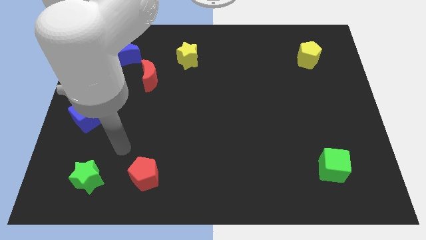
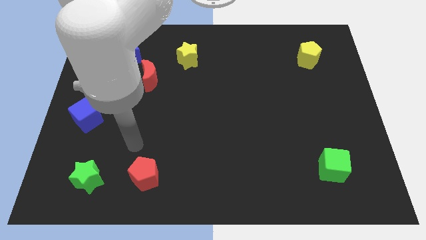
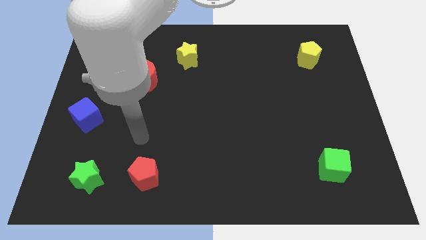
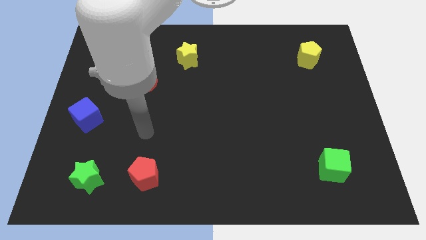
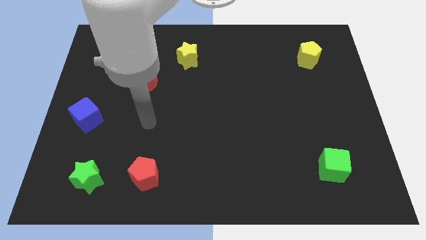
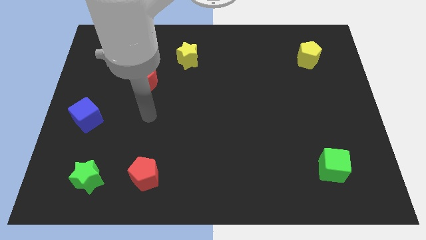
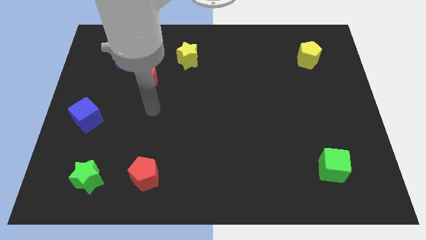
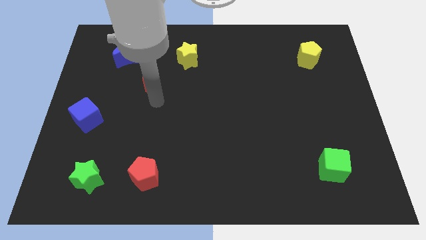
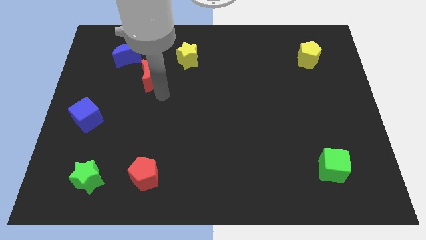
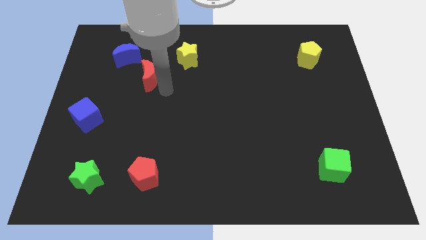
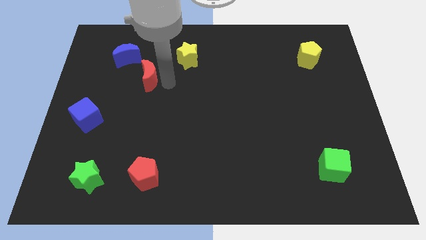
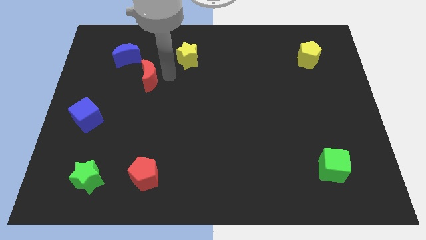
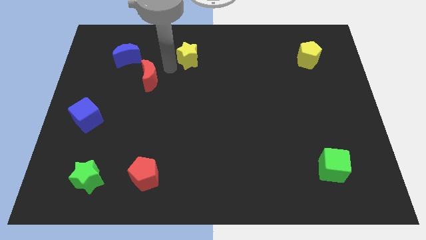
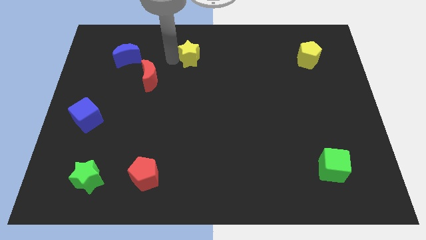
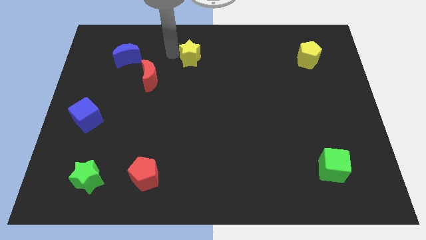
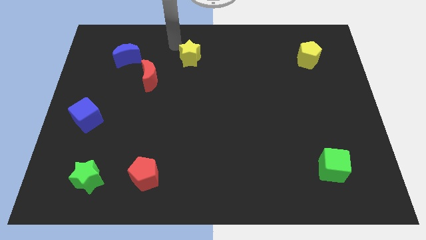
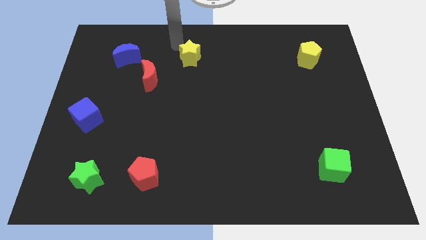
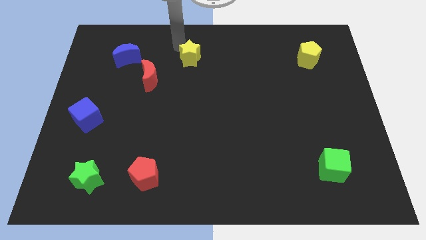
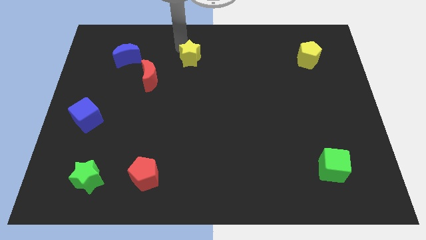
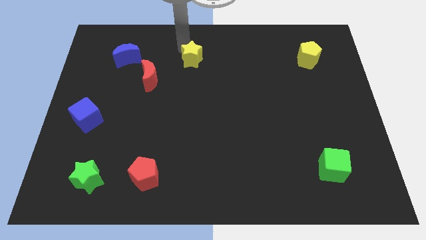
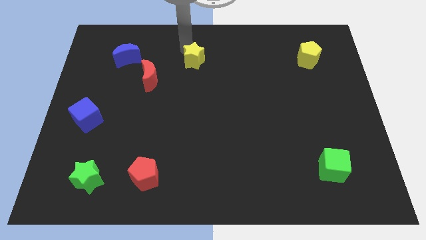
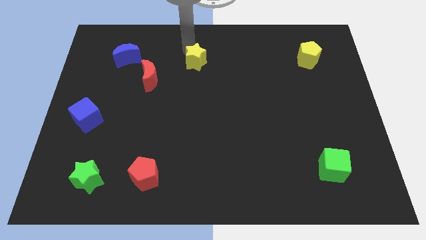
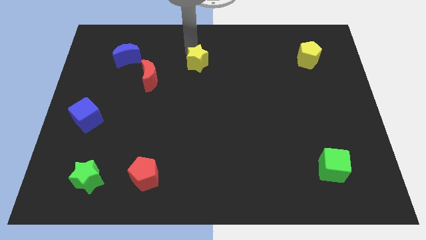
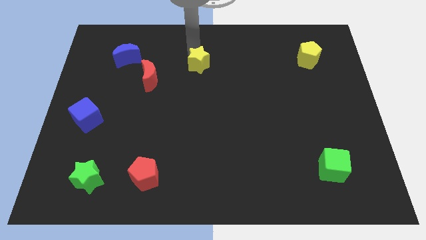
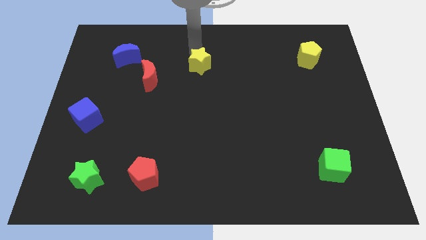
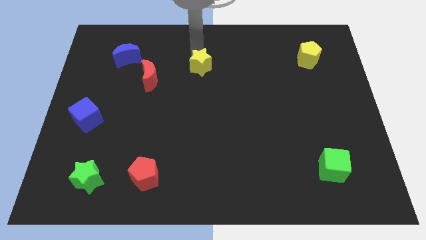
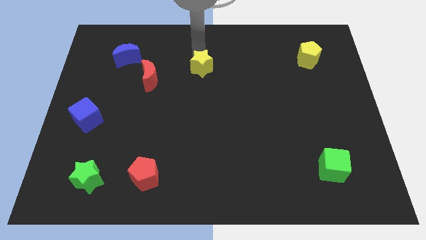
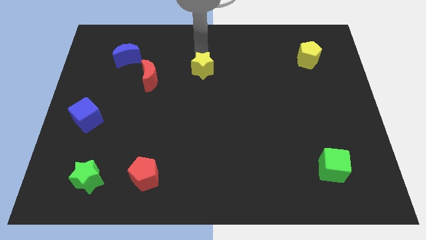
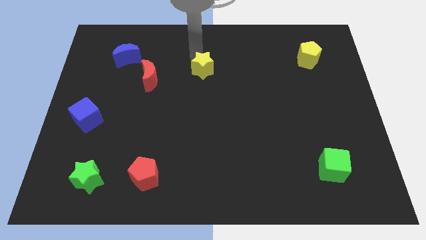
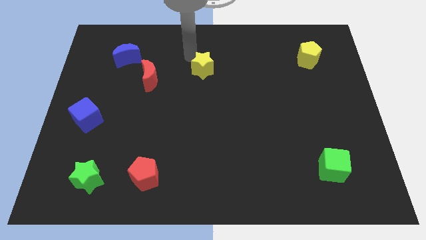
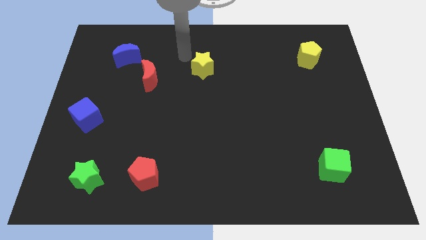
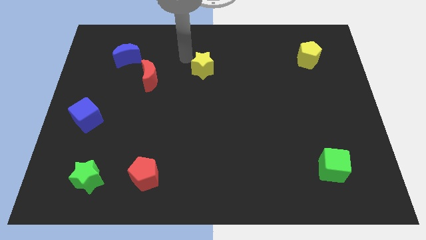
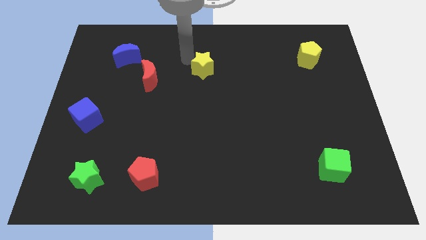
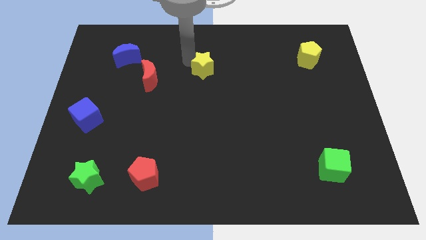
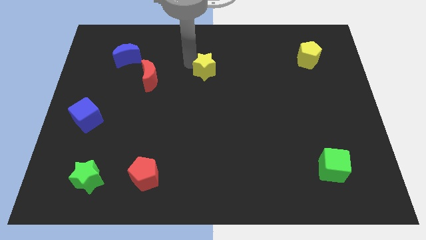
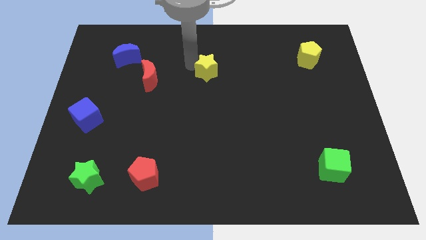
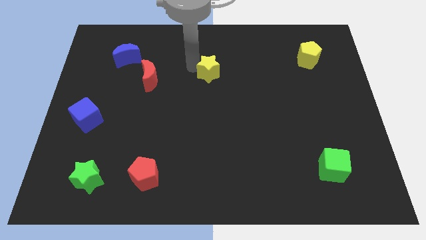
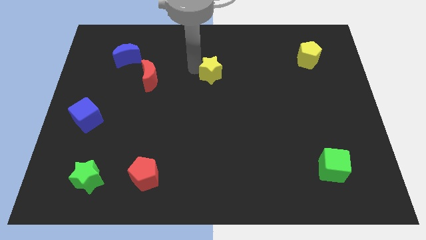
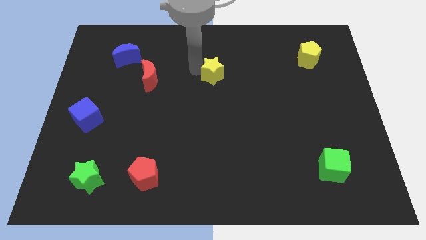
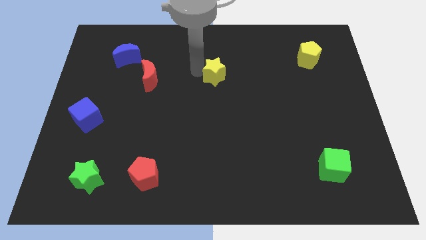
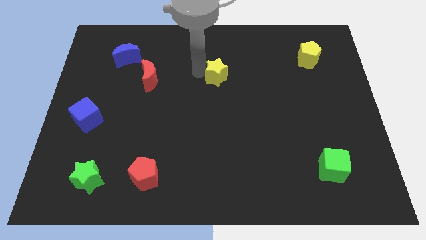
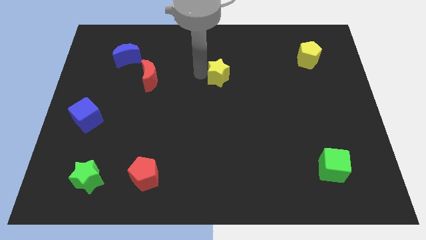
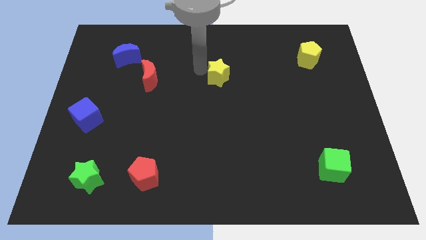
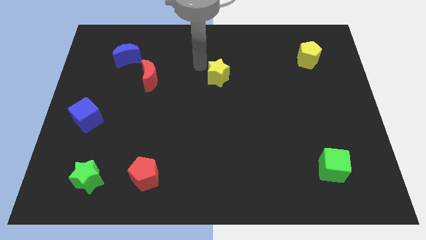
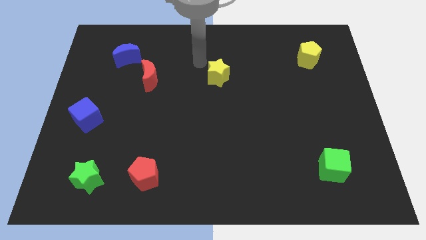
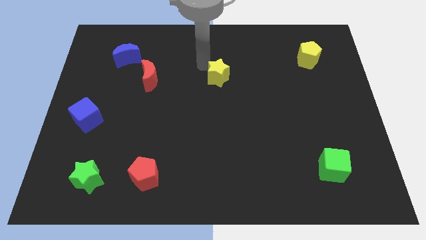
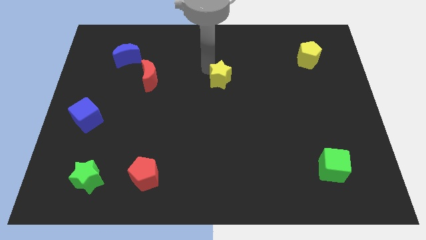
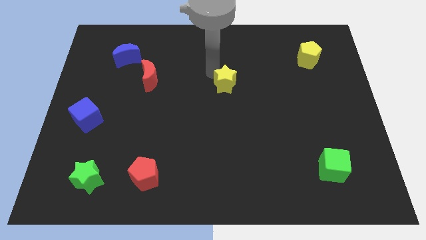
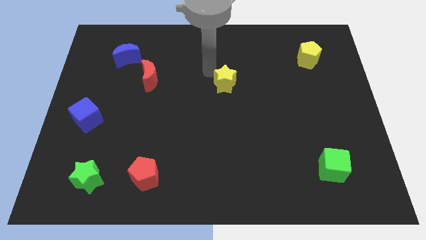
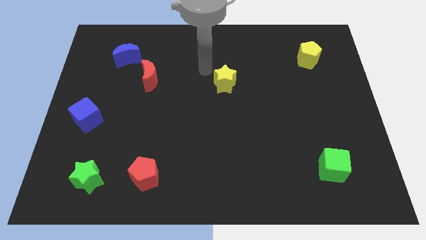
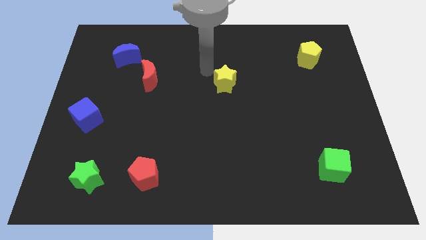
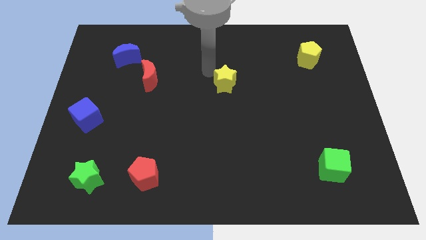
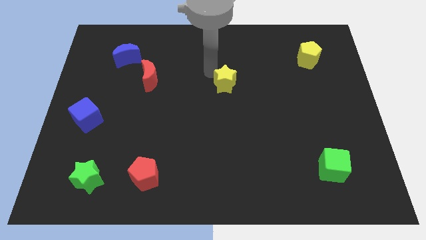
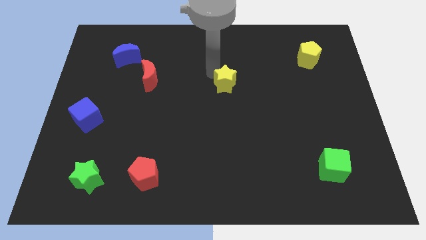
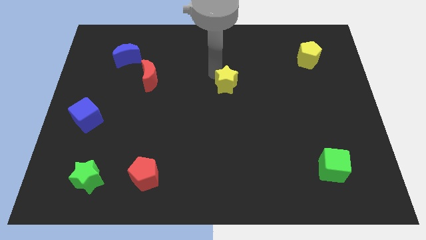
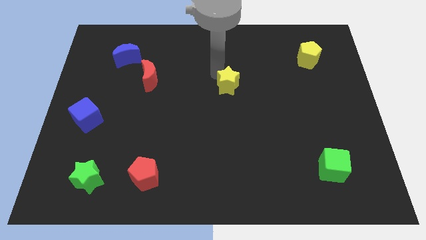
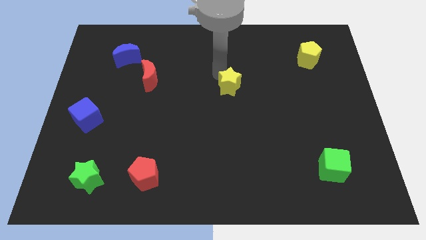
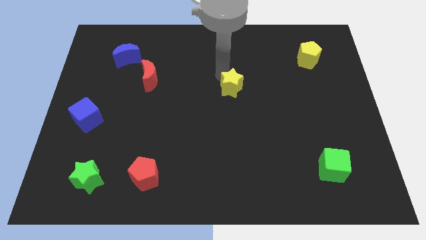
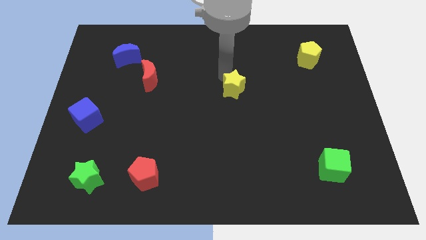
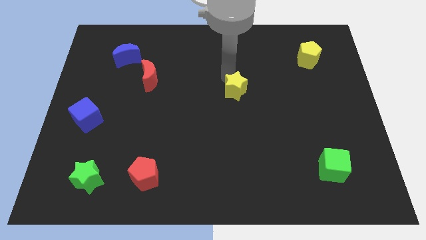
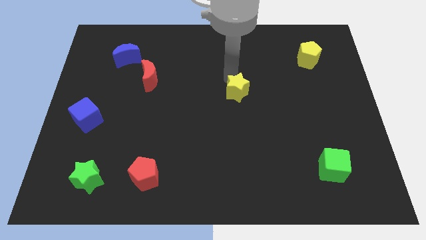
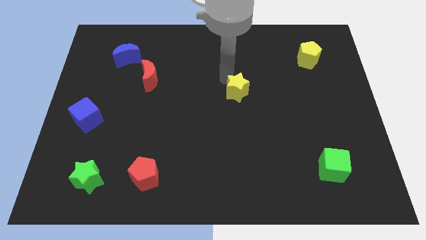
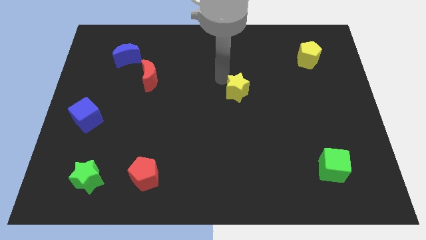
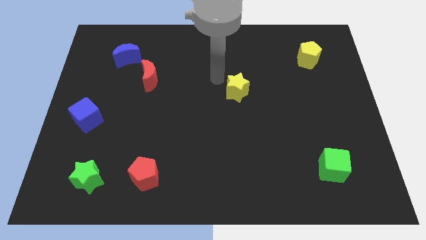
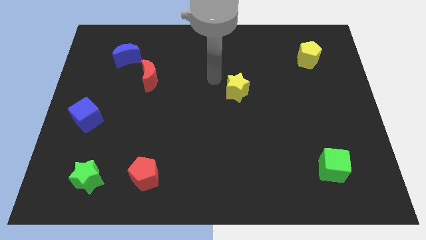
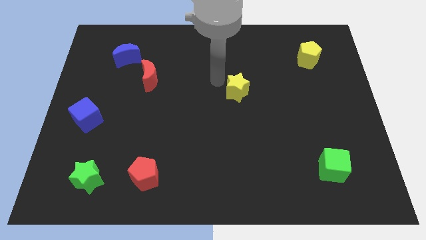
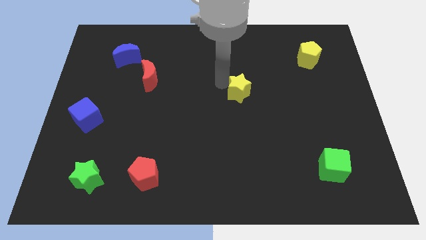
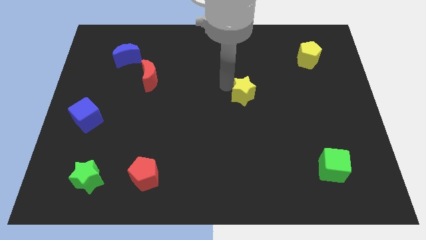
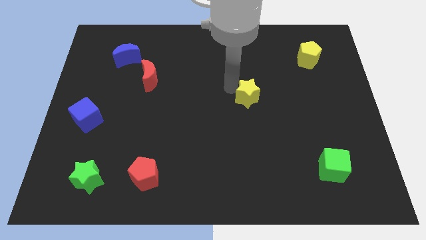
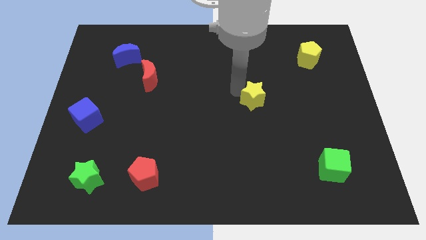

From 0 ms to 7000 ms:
move the yellow star downwards and to the right diagonally

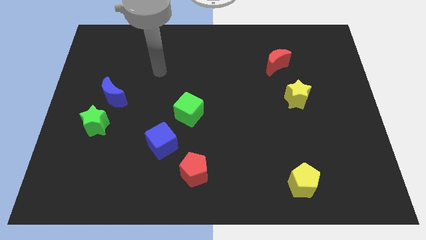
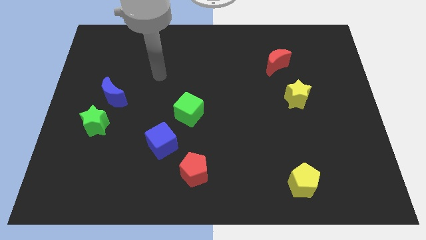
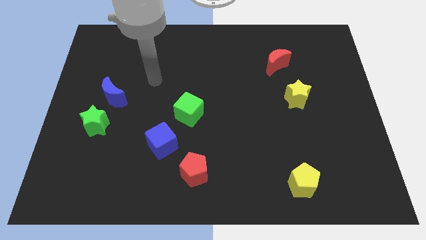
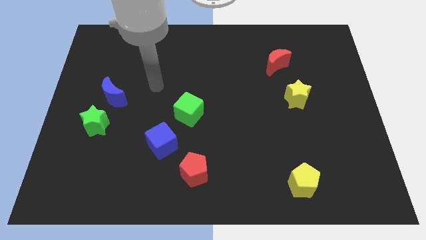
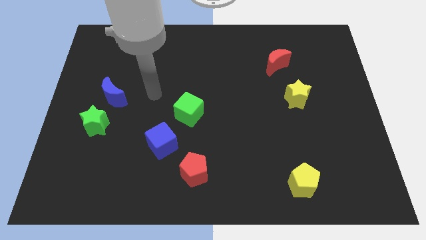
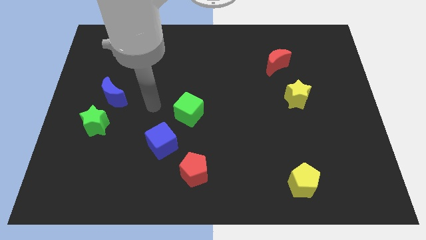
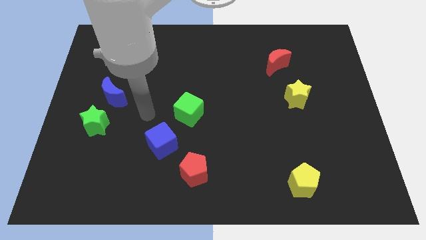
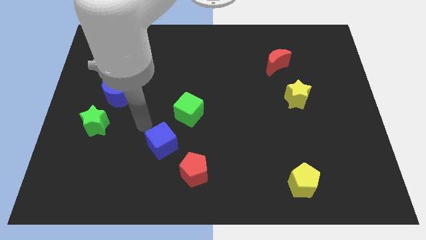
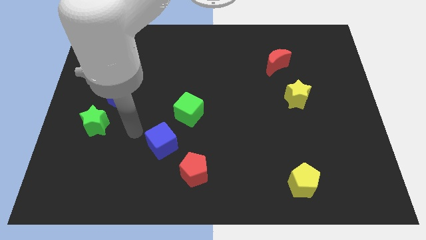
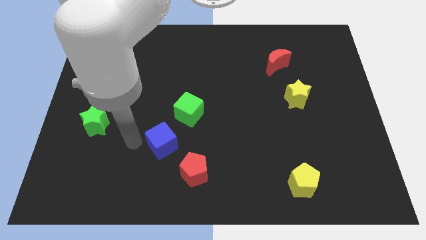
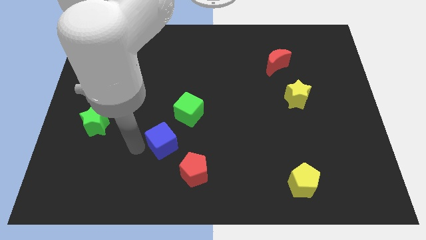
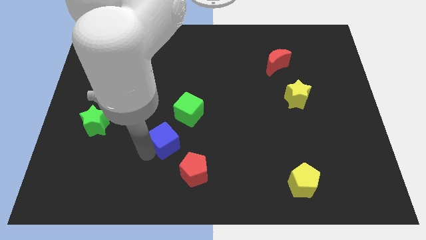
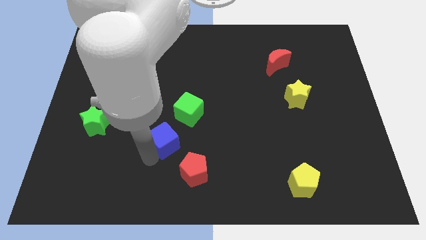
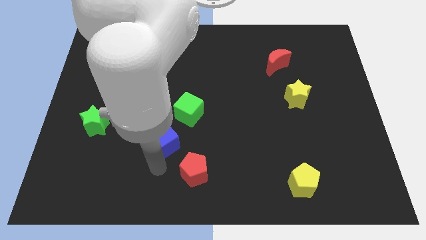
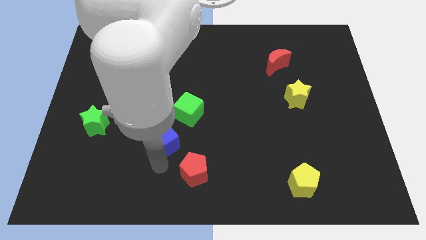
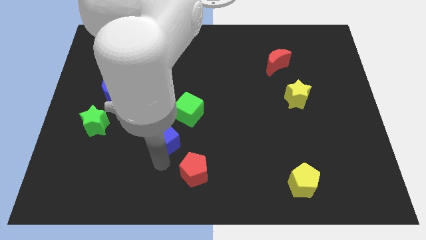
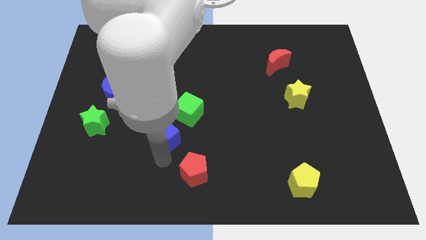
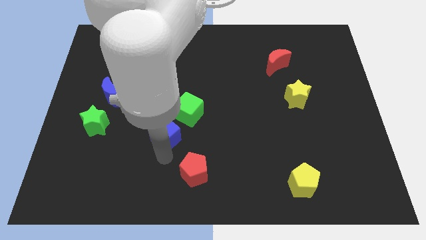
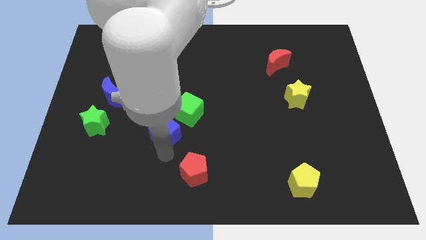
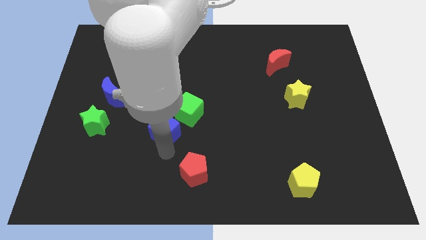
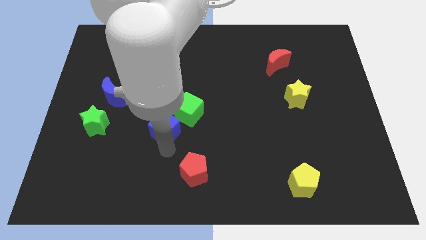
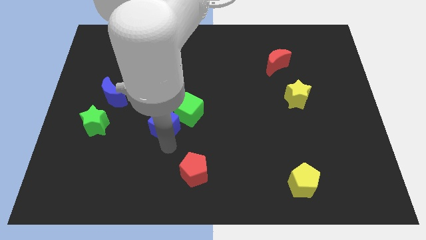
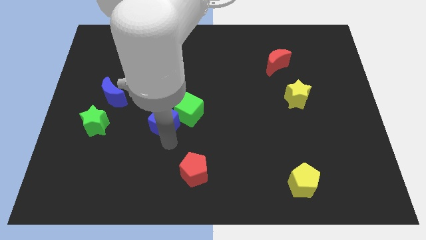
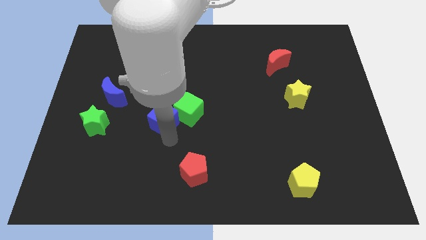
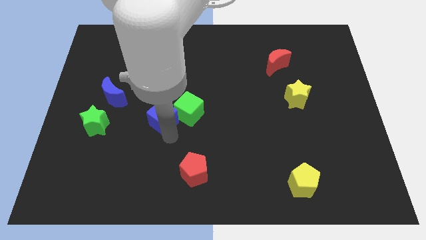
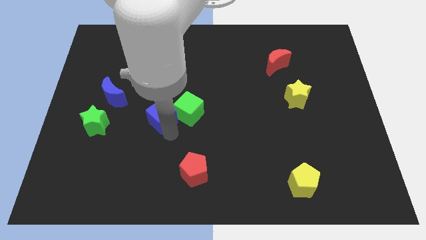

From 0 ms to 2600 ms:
move the blue cube upwards somewhat
